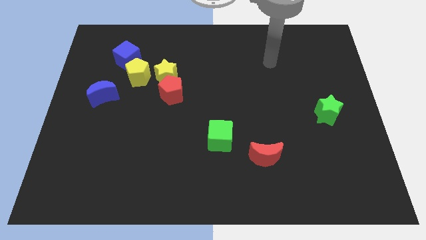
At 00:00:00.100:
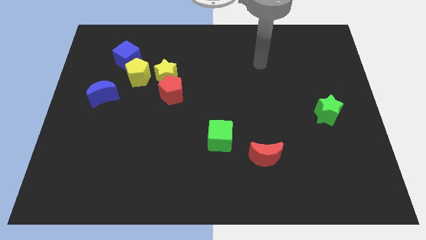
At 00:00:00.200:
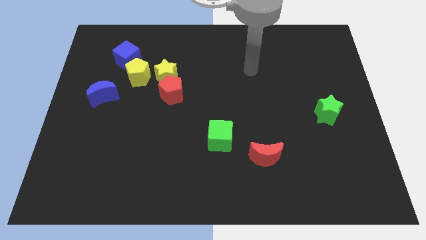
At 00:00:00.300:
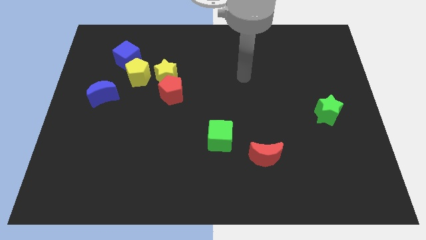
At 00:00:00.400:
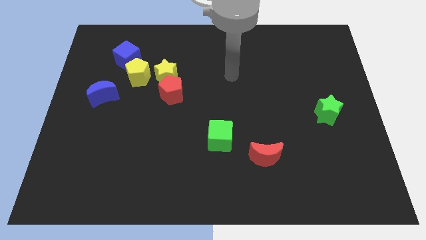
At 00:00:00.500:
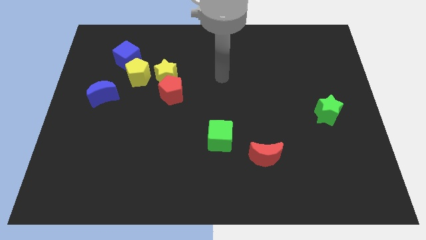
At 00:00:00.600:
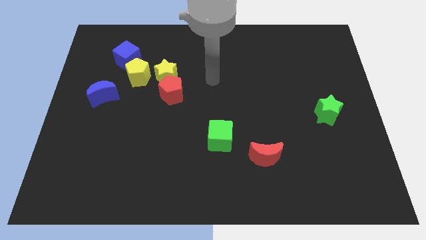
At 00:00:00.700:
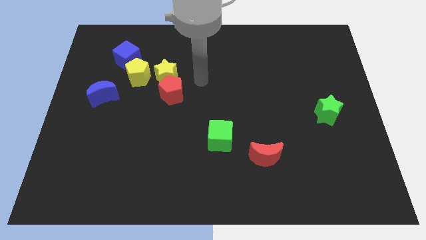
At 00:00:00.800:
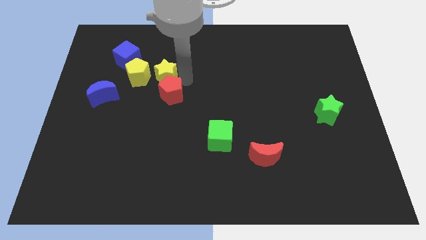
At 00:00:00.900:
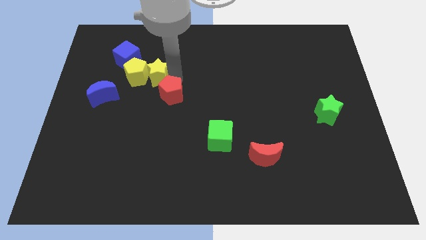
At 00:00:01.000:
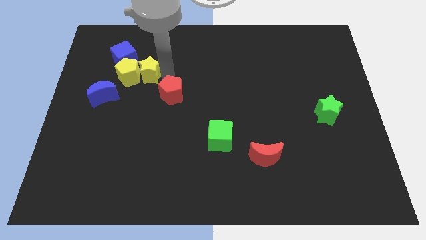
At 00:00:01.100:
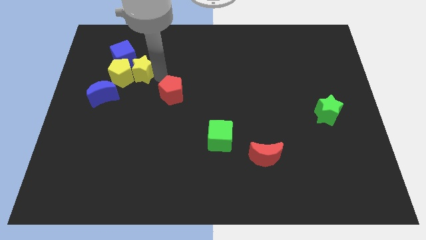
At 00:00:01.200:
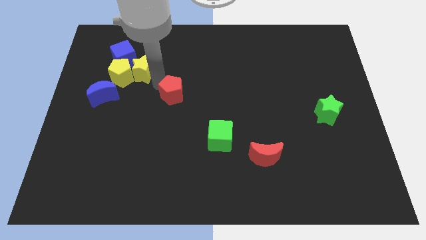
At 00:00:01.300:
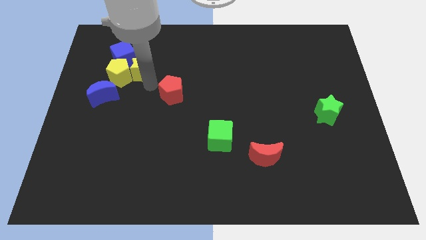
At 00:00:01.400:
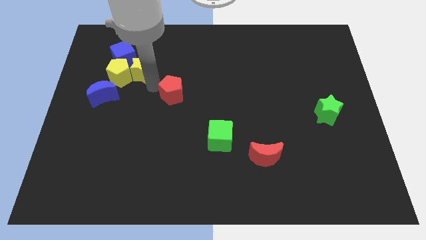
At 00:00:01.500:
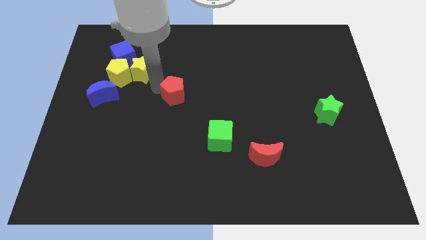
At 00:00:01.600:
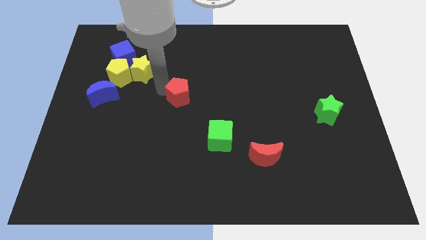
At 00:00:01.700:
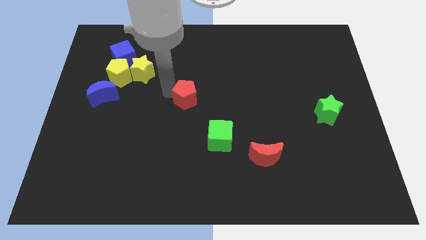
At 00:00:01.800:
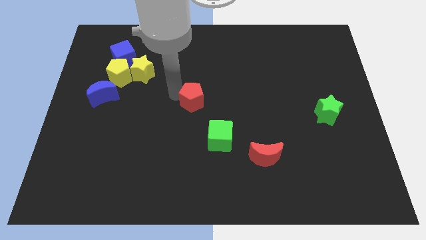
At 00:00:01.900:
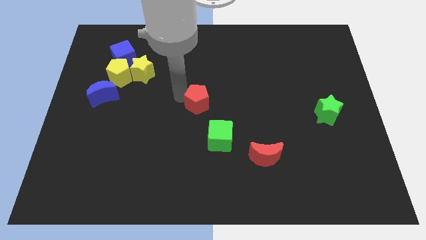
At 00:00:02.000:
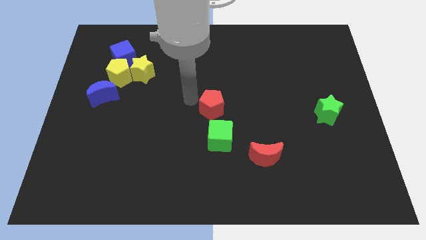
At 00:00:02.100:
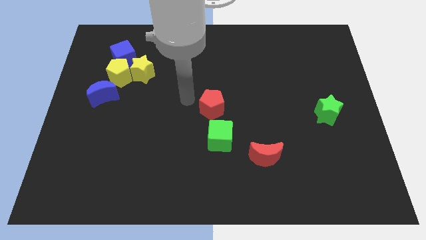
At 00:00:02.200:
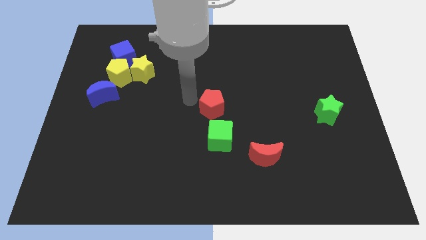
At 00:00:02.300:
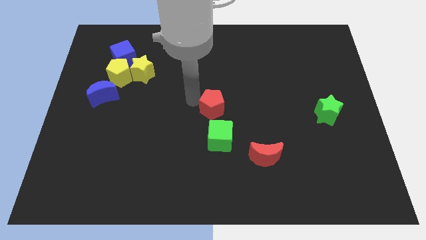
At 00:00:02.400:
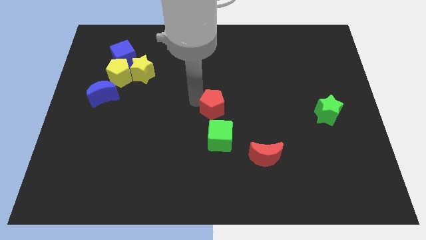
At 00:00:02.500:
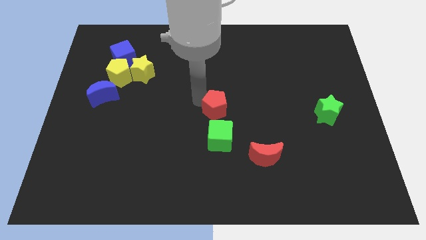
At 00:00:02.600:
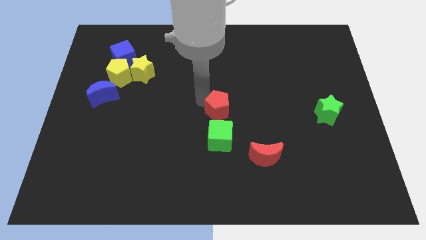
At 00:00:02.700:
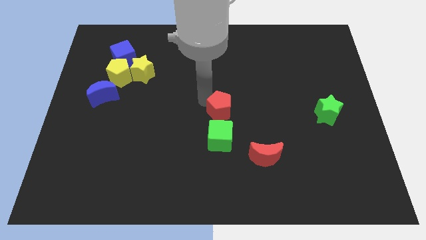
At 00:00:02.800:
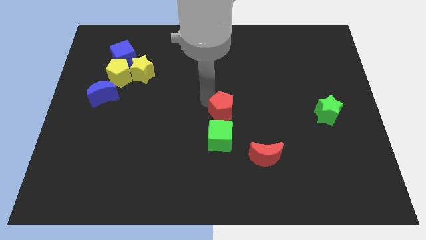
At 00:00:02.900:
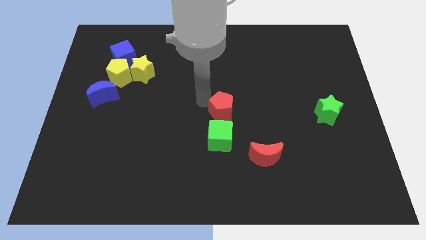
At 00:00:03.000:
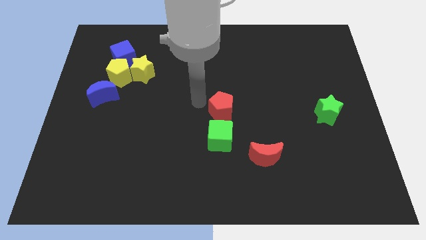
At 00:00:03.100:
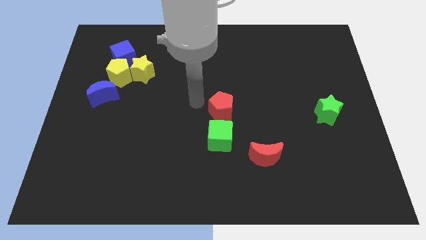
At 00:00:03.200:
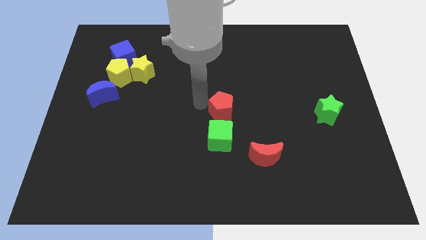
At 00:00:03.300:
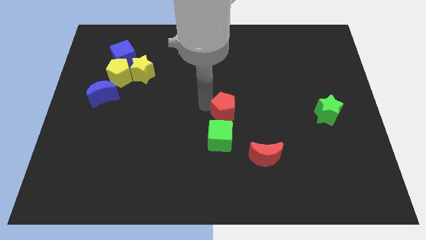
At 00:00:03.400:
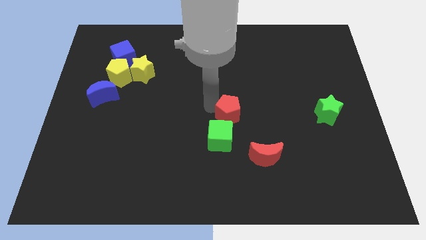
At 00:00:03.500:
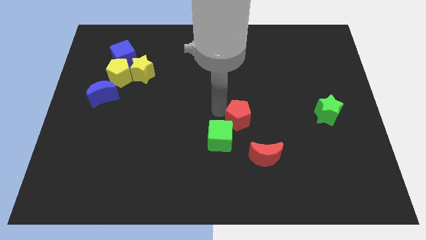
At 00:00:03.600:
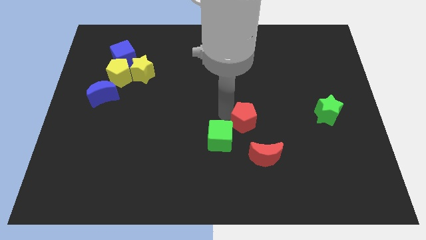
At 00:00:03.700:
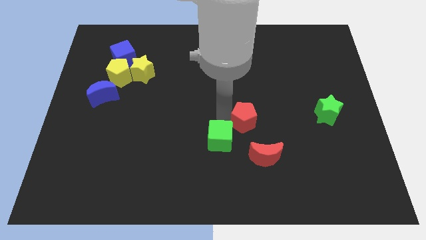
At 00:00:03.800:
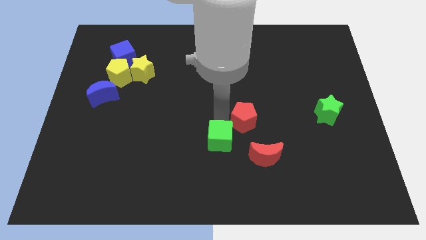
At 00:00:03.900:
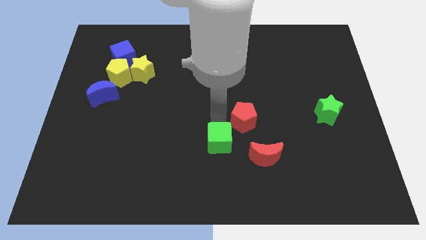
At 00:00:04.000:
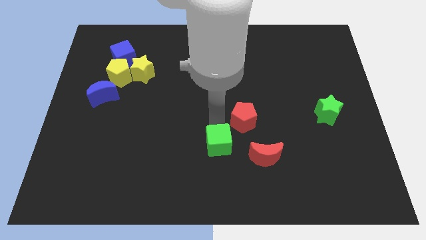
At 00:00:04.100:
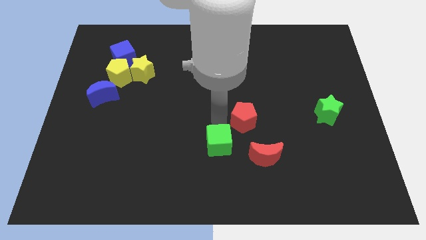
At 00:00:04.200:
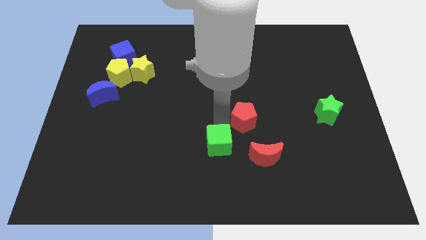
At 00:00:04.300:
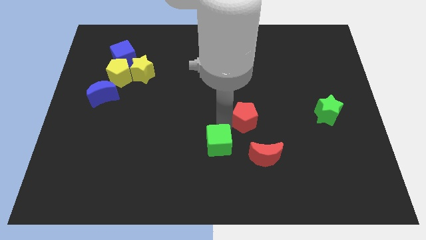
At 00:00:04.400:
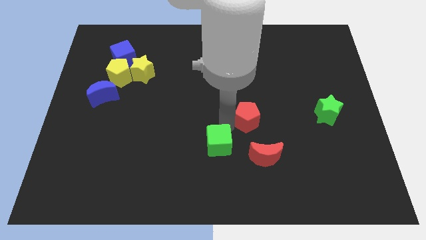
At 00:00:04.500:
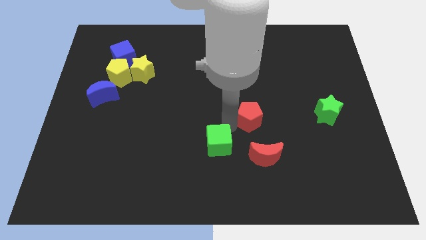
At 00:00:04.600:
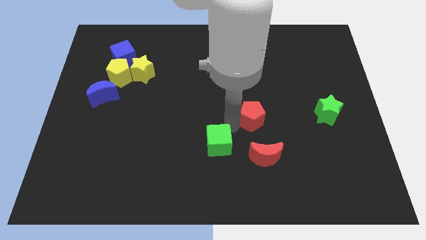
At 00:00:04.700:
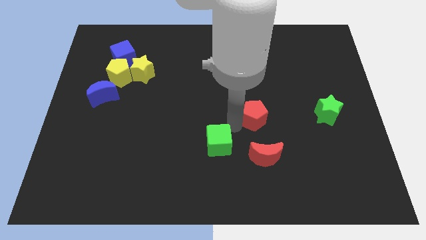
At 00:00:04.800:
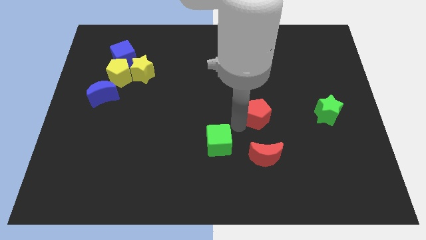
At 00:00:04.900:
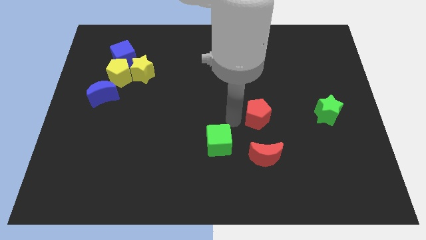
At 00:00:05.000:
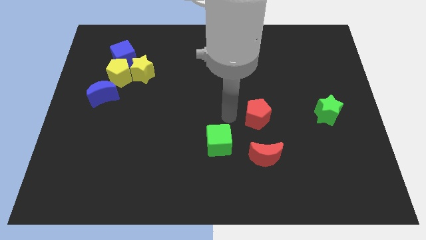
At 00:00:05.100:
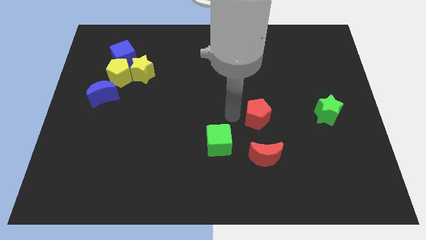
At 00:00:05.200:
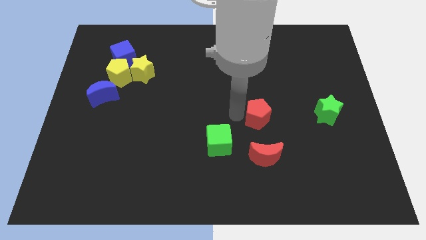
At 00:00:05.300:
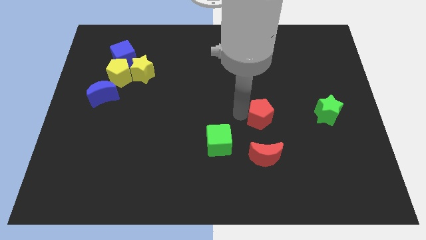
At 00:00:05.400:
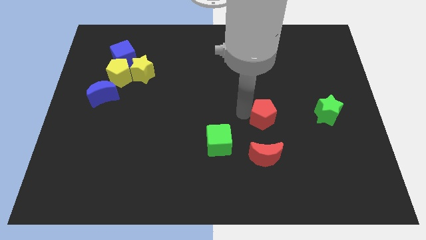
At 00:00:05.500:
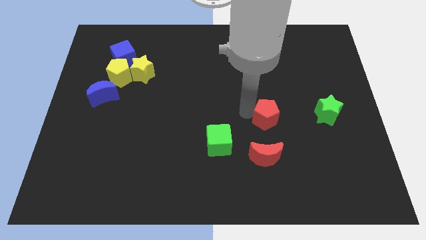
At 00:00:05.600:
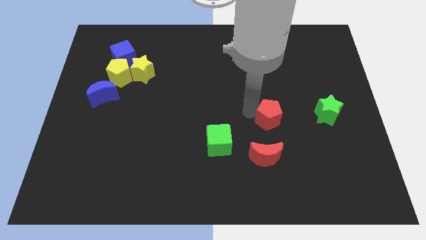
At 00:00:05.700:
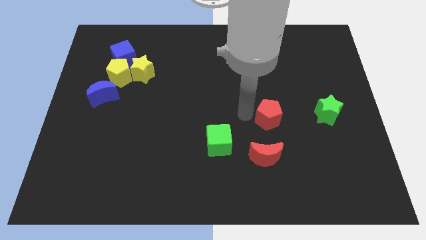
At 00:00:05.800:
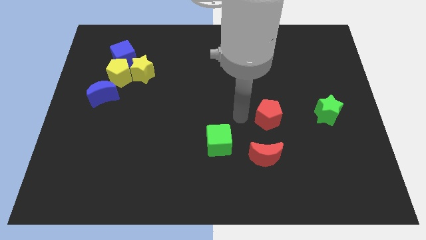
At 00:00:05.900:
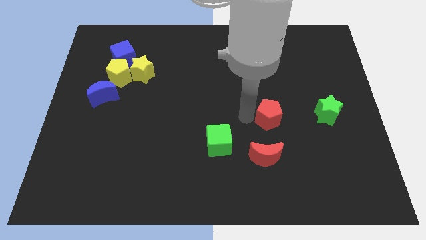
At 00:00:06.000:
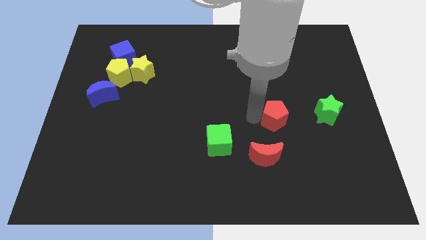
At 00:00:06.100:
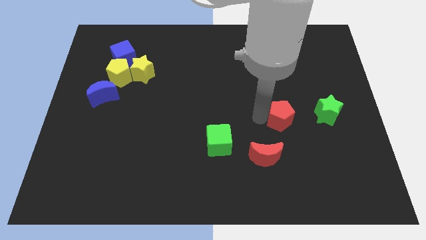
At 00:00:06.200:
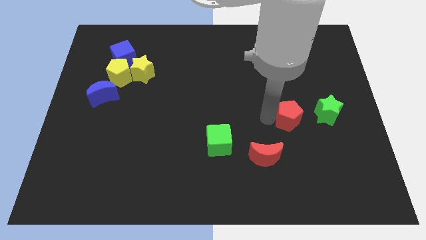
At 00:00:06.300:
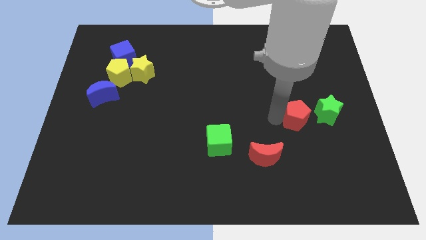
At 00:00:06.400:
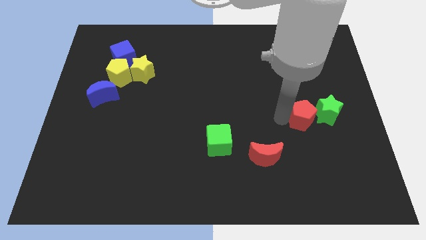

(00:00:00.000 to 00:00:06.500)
put the red pentagon towards the green star

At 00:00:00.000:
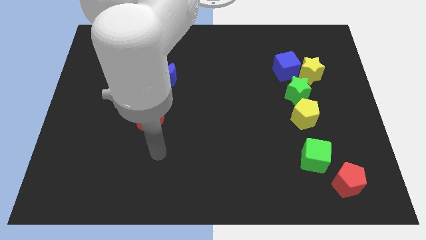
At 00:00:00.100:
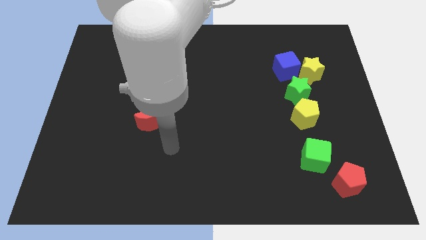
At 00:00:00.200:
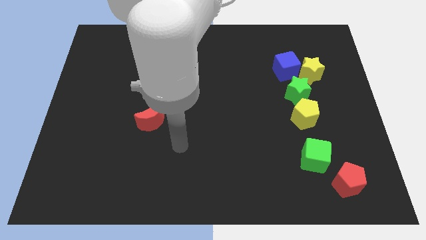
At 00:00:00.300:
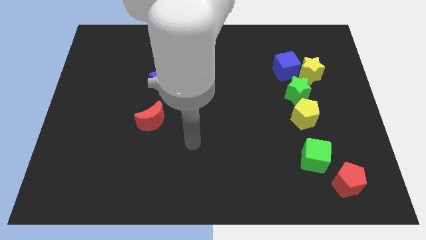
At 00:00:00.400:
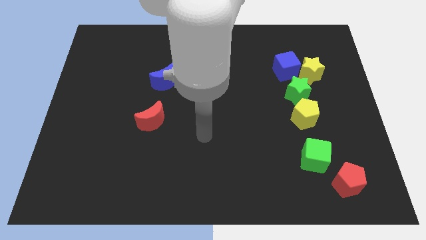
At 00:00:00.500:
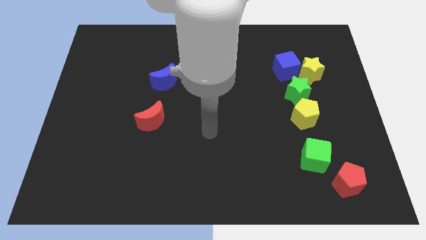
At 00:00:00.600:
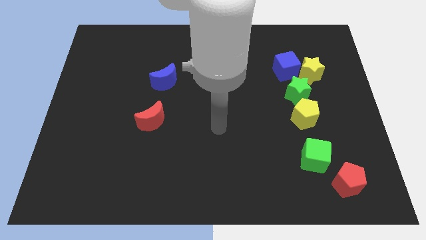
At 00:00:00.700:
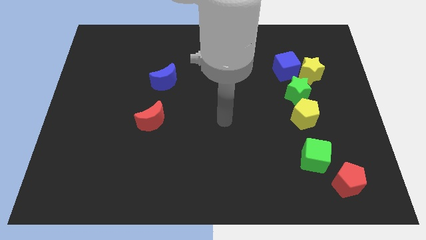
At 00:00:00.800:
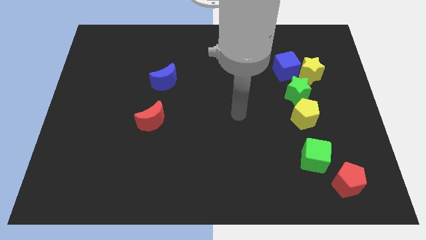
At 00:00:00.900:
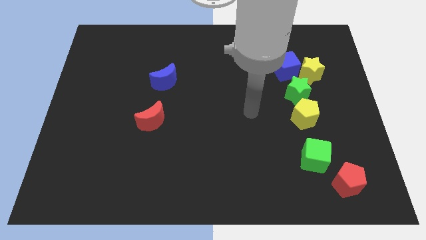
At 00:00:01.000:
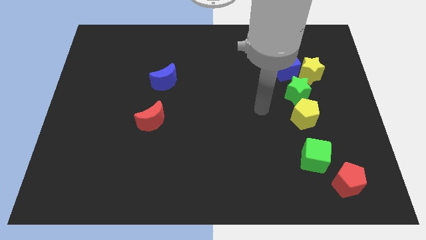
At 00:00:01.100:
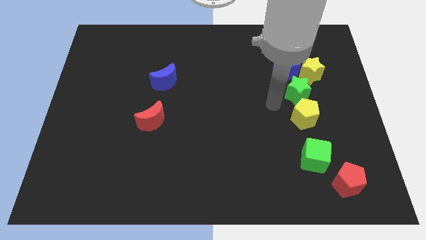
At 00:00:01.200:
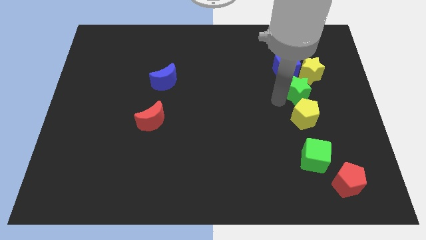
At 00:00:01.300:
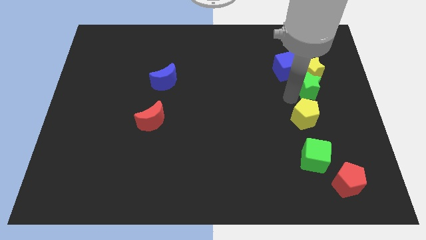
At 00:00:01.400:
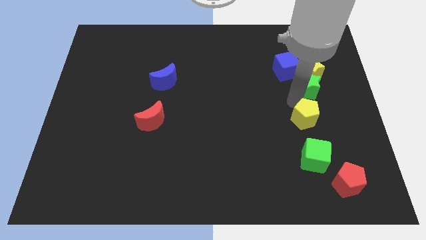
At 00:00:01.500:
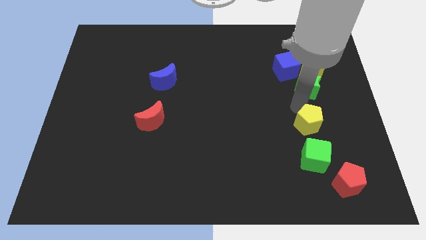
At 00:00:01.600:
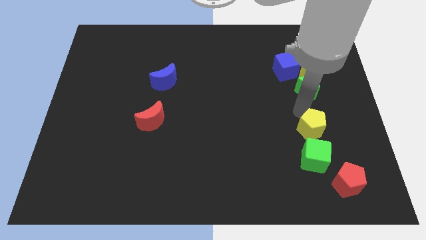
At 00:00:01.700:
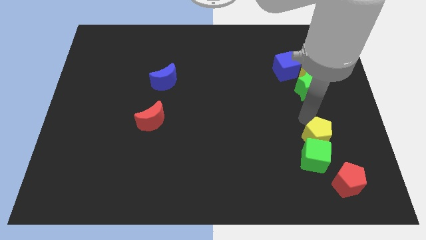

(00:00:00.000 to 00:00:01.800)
slide the yellow pentagon towards the green cube
